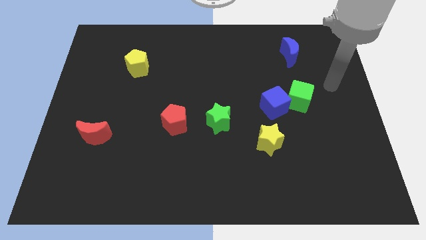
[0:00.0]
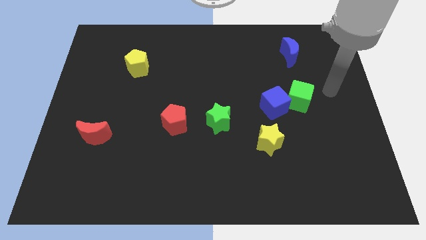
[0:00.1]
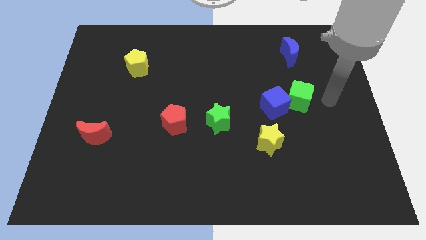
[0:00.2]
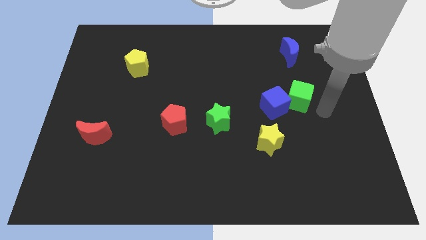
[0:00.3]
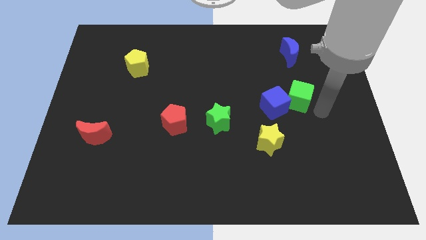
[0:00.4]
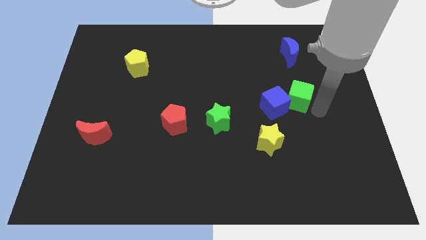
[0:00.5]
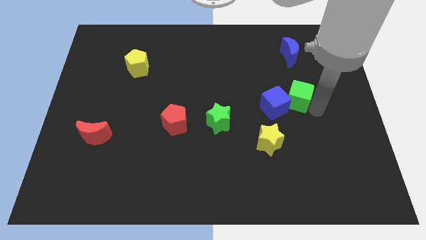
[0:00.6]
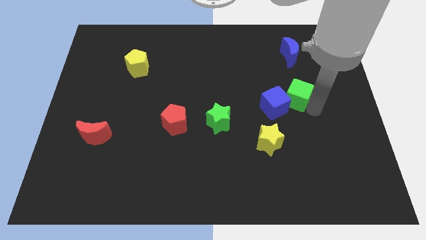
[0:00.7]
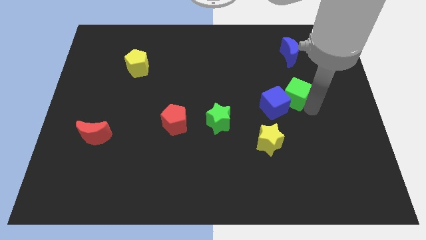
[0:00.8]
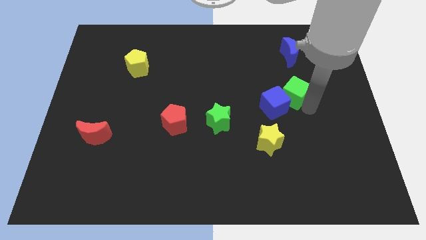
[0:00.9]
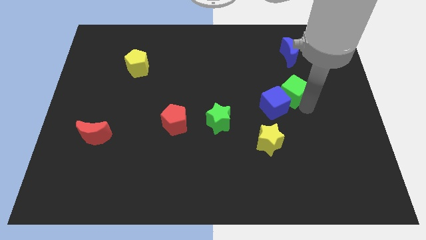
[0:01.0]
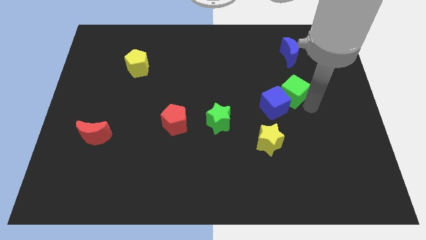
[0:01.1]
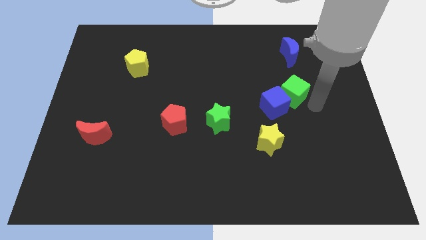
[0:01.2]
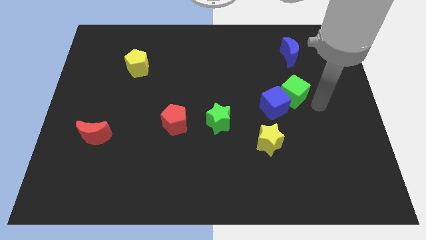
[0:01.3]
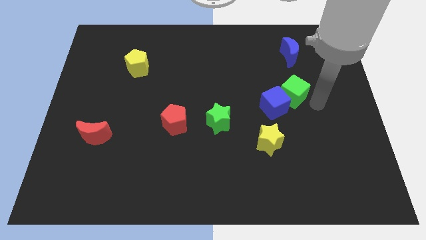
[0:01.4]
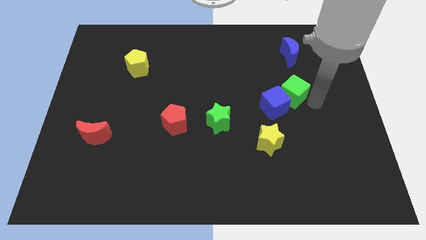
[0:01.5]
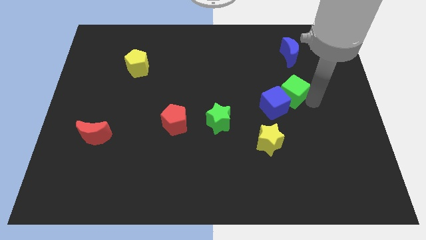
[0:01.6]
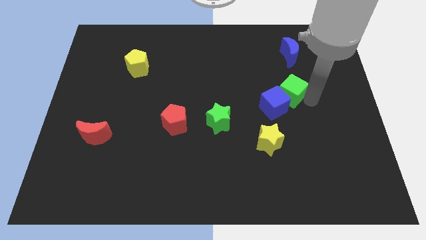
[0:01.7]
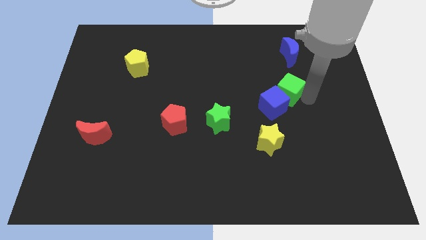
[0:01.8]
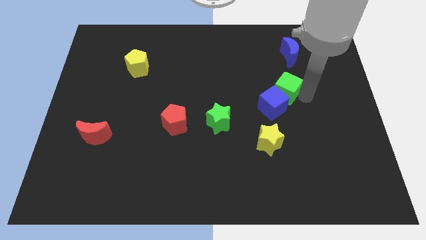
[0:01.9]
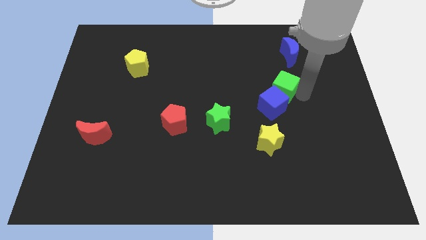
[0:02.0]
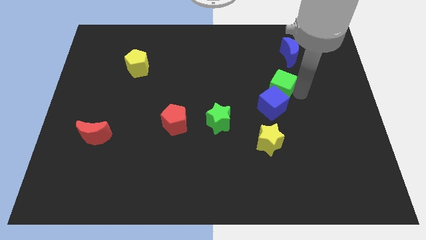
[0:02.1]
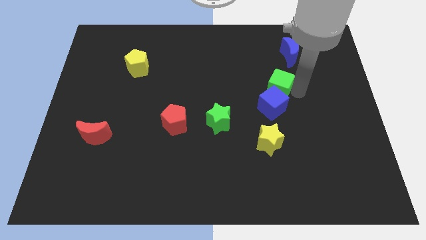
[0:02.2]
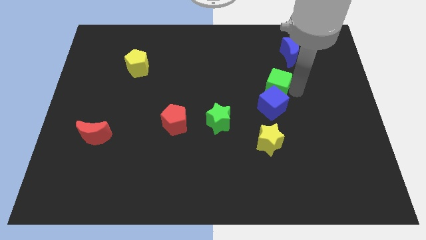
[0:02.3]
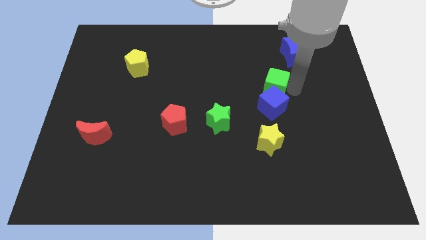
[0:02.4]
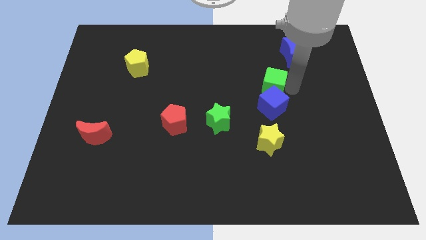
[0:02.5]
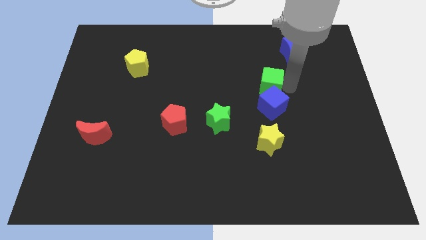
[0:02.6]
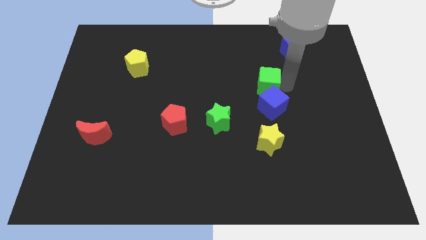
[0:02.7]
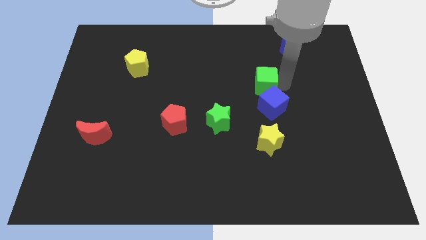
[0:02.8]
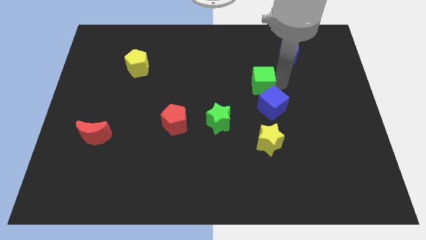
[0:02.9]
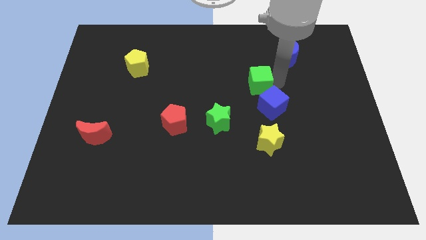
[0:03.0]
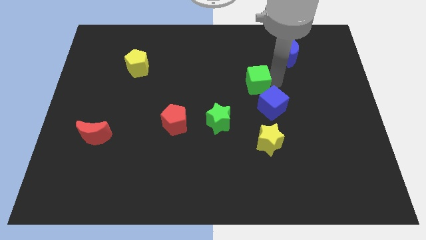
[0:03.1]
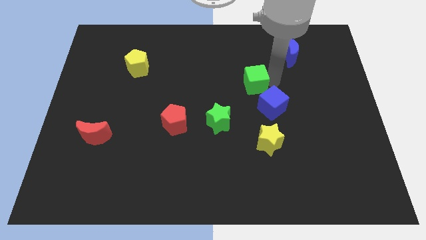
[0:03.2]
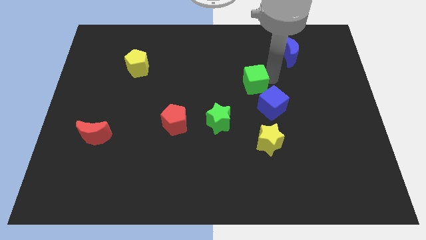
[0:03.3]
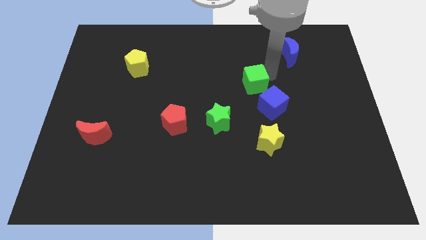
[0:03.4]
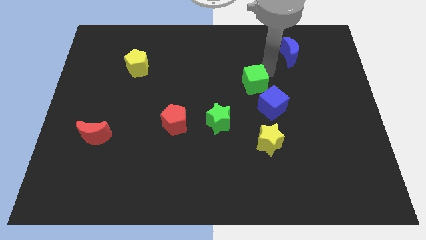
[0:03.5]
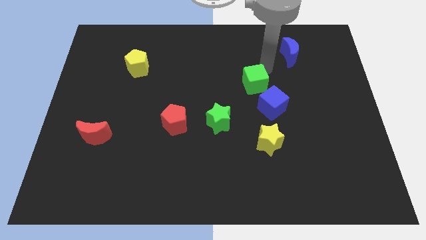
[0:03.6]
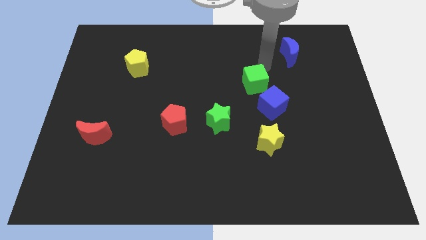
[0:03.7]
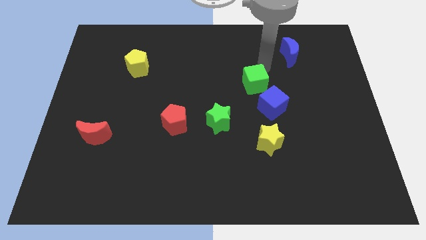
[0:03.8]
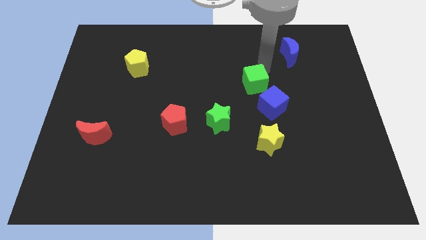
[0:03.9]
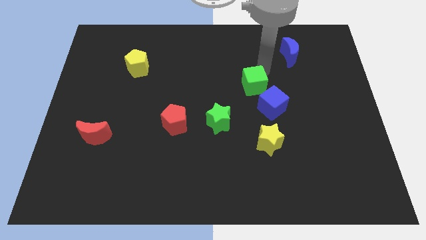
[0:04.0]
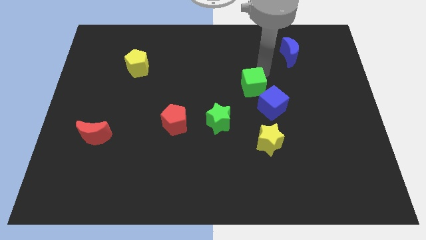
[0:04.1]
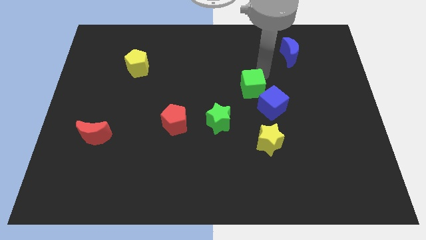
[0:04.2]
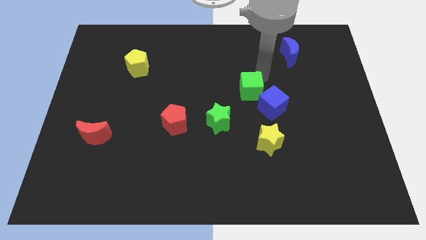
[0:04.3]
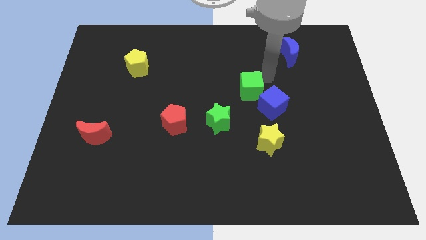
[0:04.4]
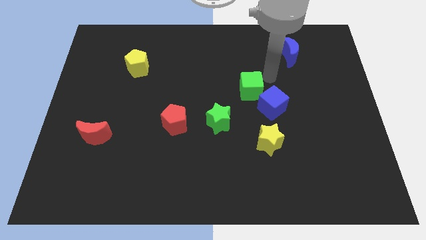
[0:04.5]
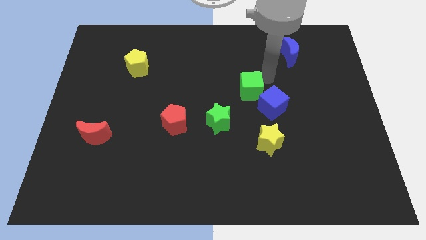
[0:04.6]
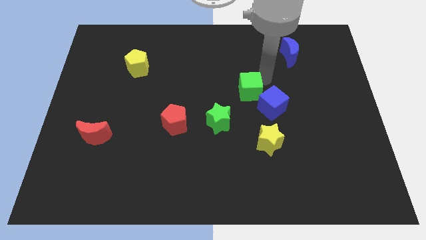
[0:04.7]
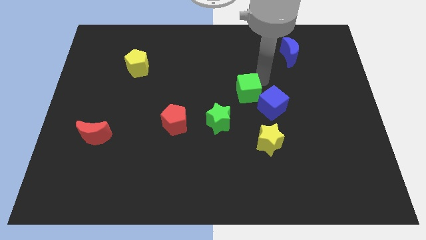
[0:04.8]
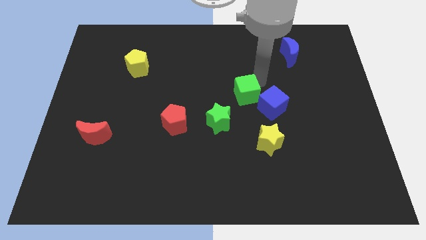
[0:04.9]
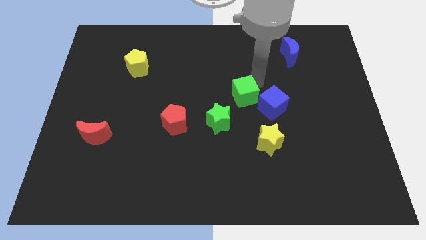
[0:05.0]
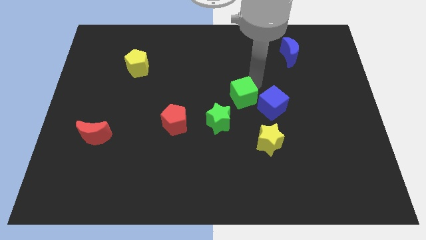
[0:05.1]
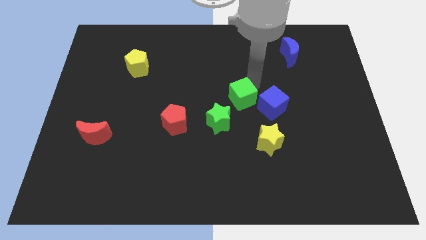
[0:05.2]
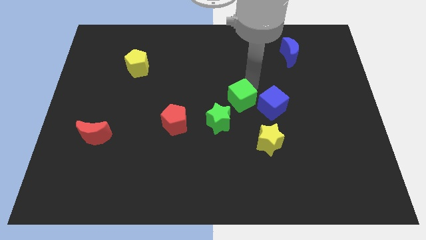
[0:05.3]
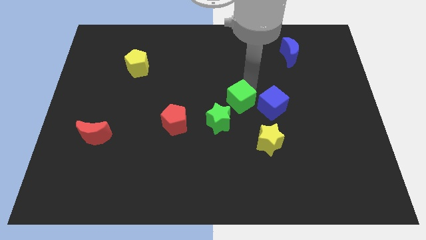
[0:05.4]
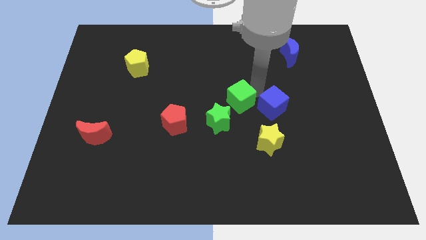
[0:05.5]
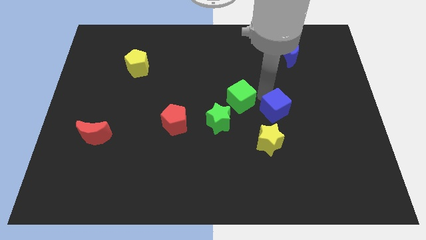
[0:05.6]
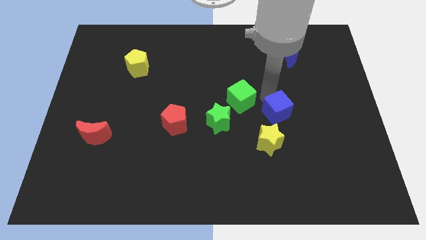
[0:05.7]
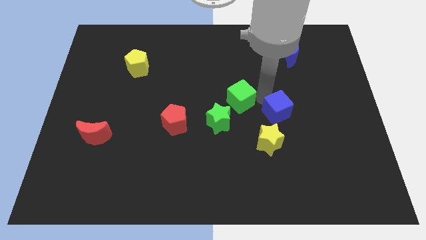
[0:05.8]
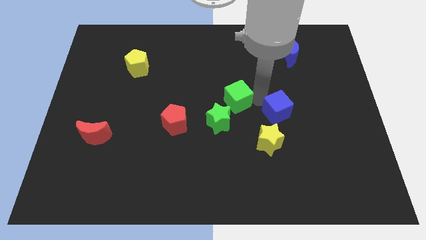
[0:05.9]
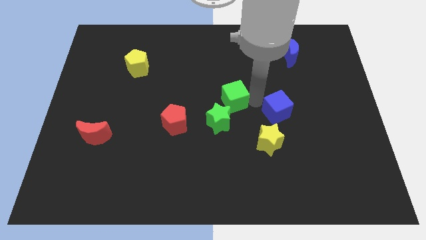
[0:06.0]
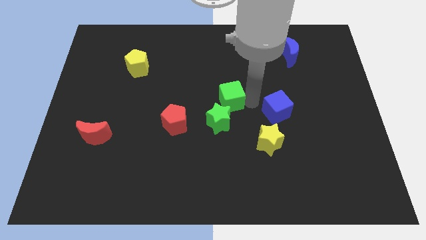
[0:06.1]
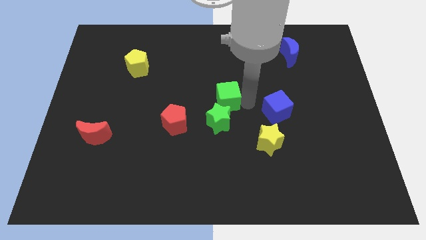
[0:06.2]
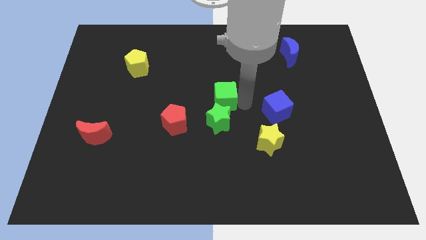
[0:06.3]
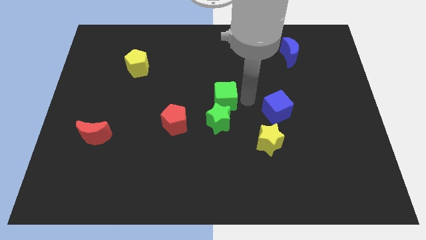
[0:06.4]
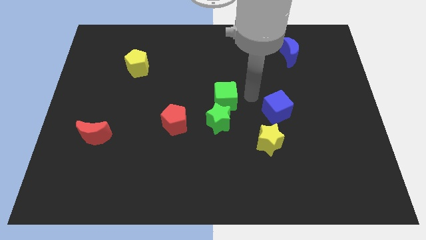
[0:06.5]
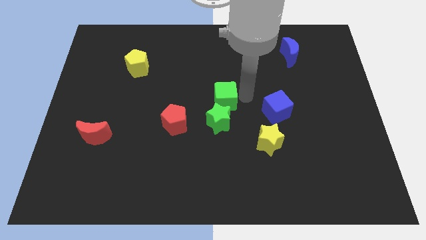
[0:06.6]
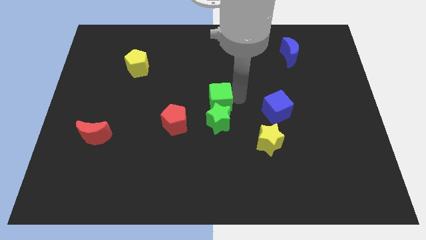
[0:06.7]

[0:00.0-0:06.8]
slide the green cube diagonally up and to the left of the green star

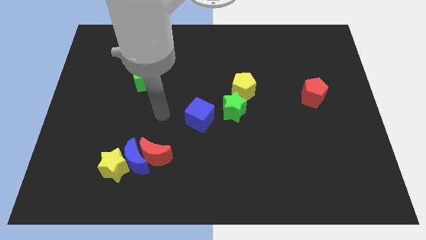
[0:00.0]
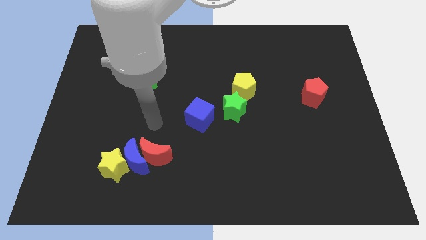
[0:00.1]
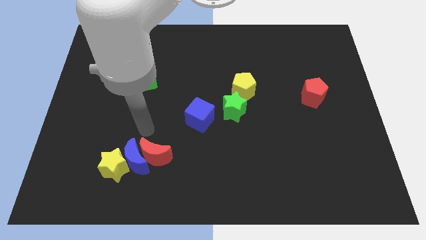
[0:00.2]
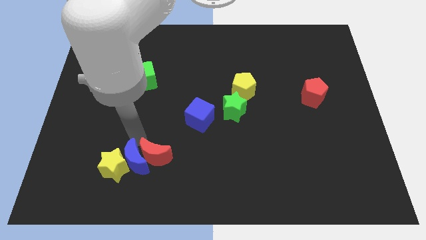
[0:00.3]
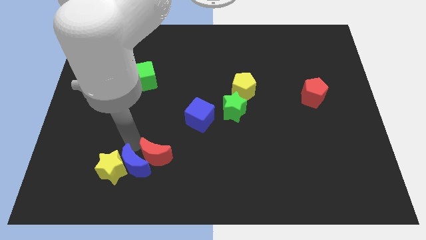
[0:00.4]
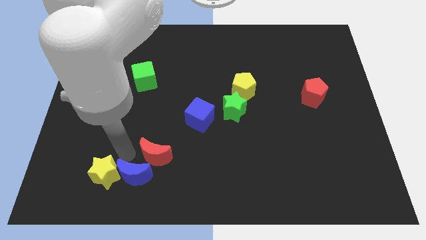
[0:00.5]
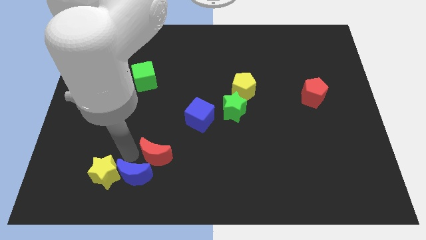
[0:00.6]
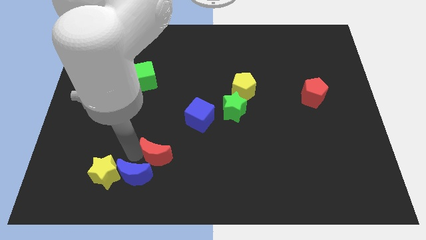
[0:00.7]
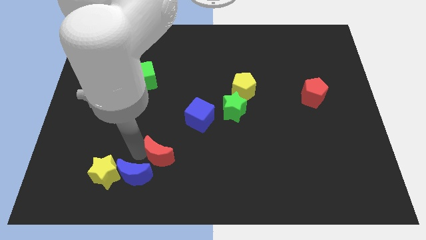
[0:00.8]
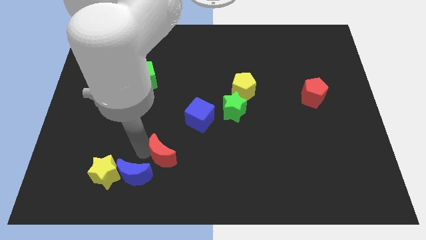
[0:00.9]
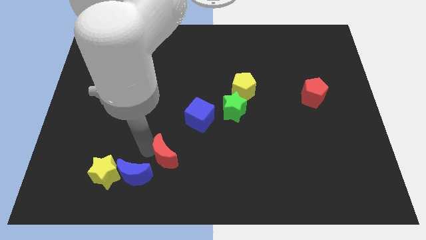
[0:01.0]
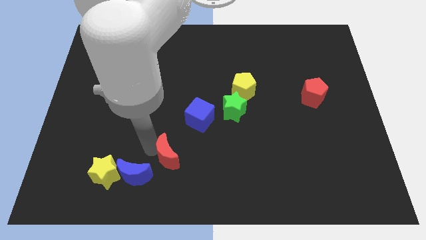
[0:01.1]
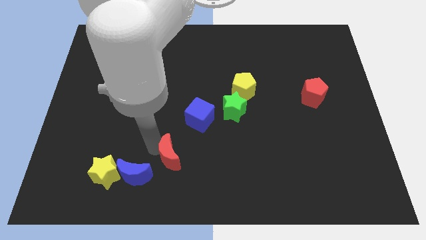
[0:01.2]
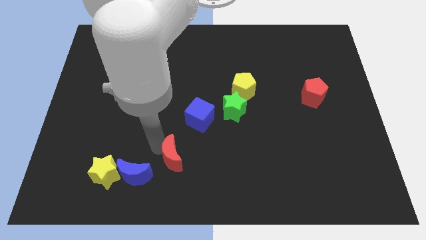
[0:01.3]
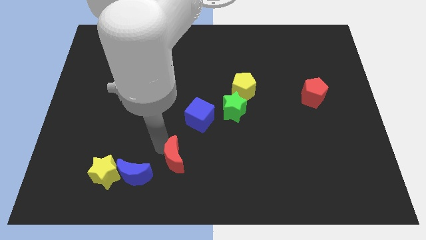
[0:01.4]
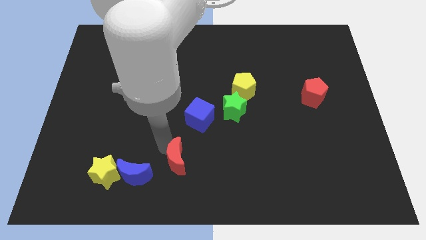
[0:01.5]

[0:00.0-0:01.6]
push the red moon below the blue cube
